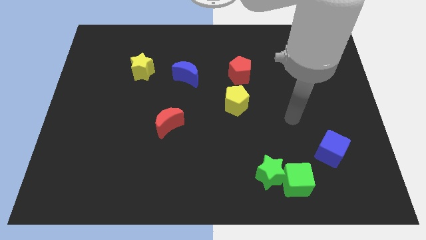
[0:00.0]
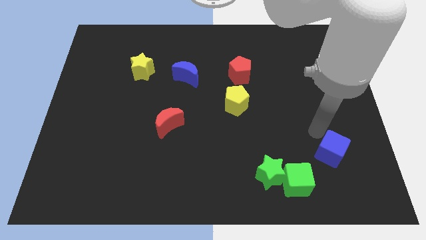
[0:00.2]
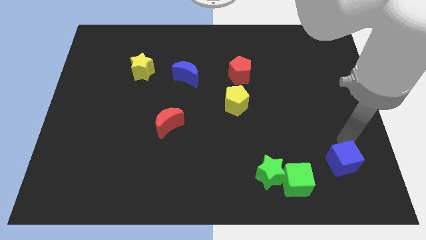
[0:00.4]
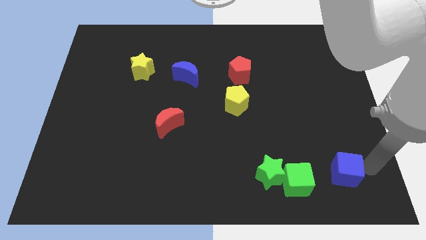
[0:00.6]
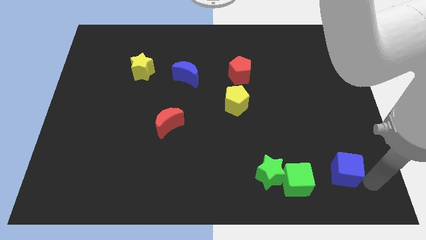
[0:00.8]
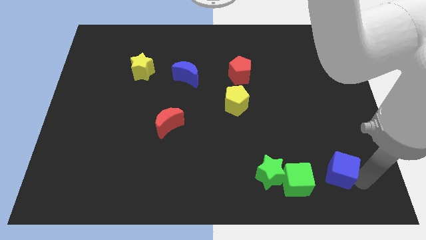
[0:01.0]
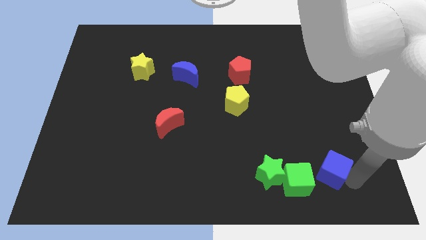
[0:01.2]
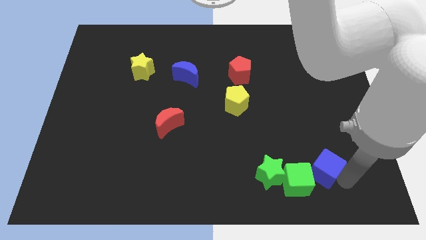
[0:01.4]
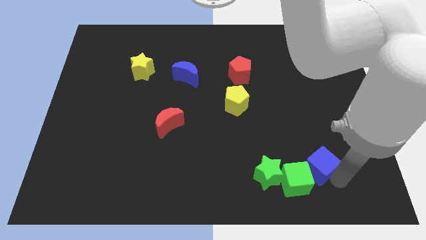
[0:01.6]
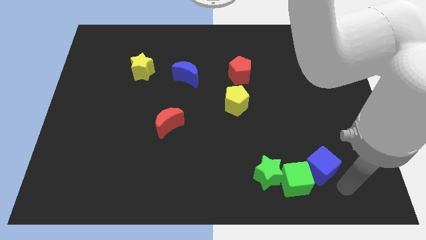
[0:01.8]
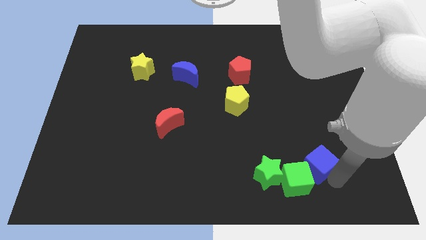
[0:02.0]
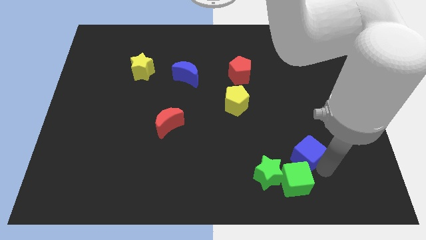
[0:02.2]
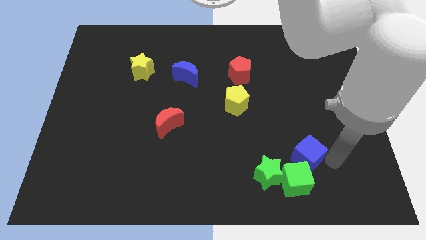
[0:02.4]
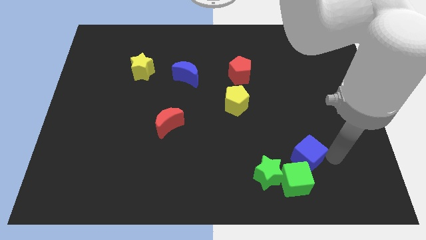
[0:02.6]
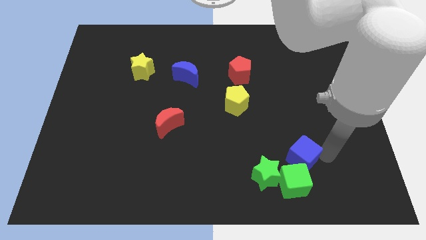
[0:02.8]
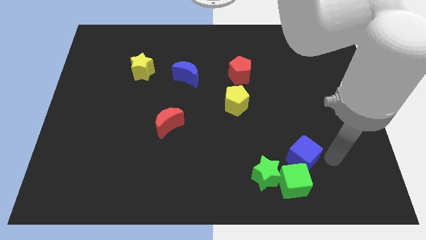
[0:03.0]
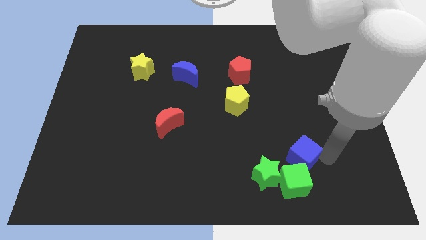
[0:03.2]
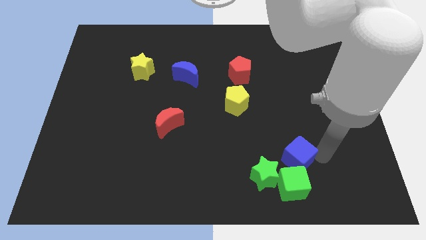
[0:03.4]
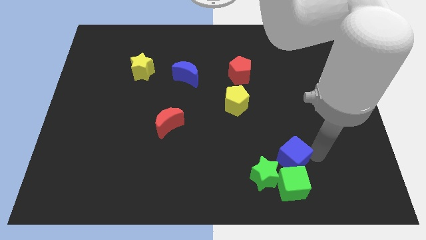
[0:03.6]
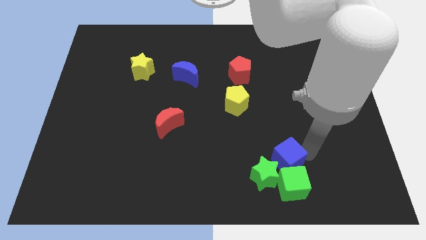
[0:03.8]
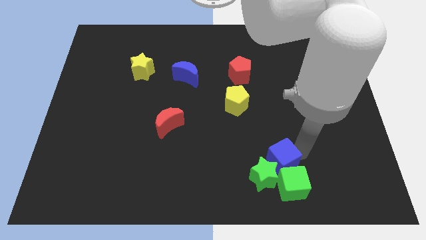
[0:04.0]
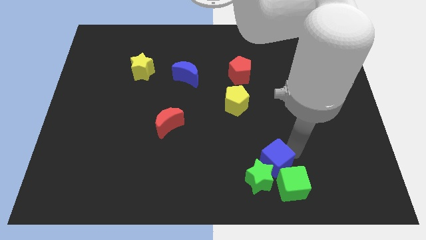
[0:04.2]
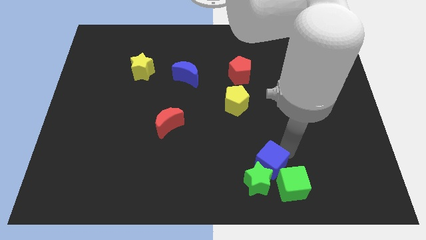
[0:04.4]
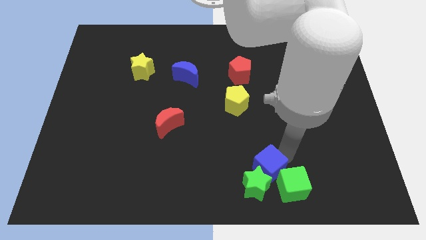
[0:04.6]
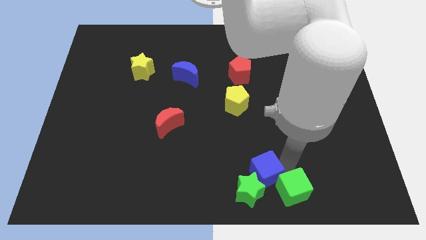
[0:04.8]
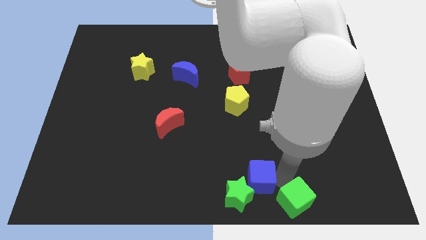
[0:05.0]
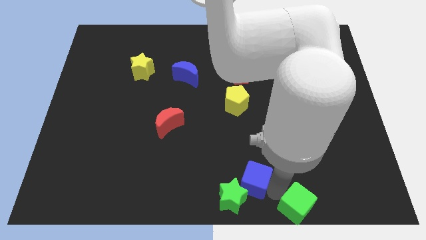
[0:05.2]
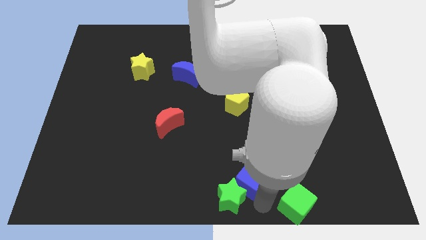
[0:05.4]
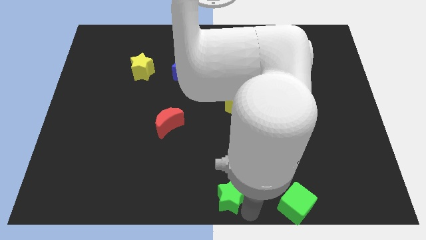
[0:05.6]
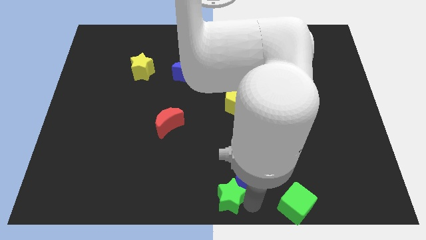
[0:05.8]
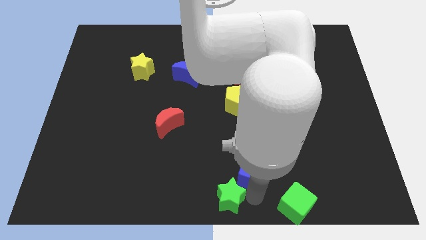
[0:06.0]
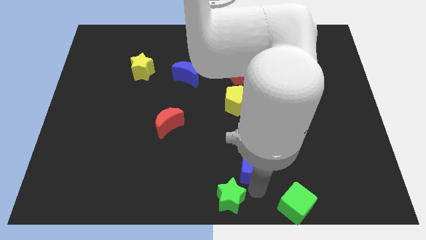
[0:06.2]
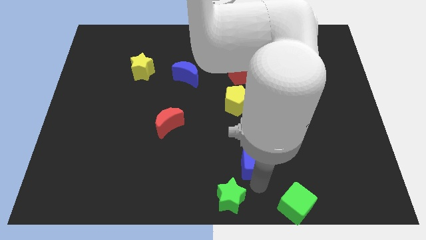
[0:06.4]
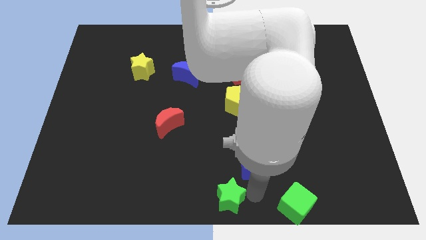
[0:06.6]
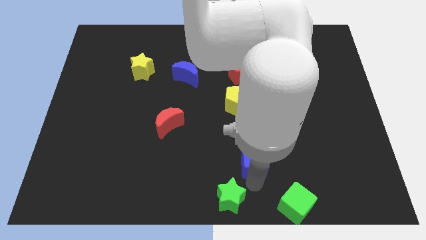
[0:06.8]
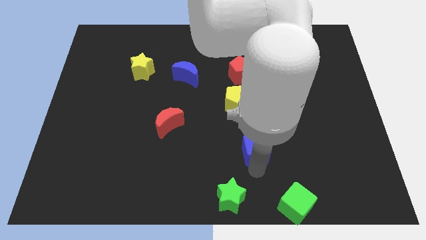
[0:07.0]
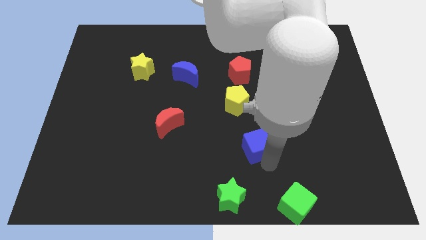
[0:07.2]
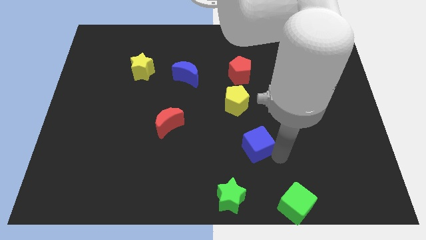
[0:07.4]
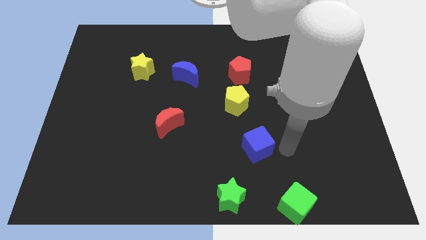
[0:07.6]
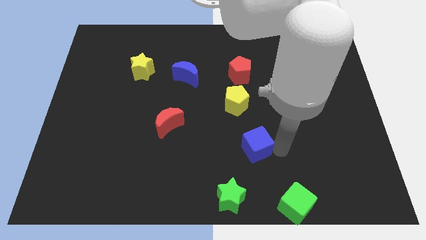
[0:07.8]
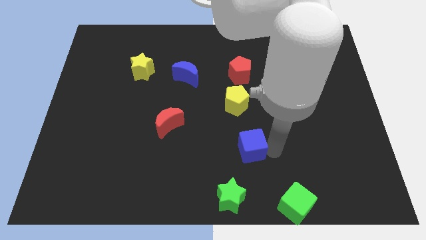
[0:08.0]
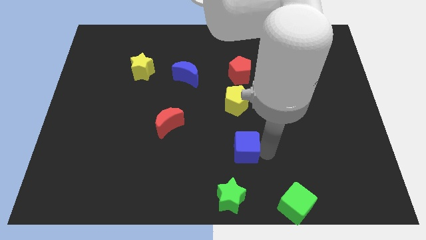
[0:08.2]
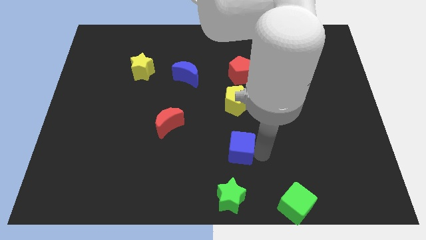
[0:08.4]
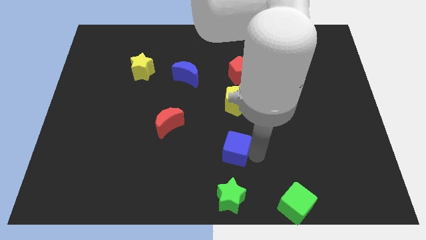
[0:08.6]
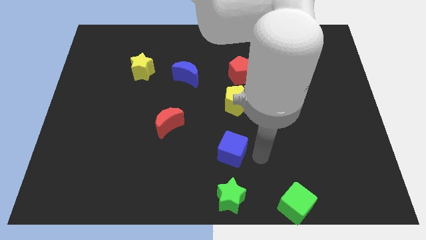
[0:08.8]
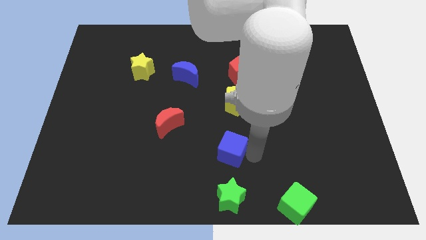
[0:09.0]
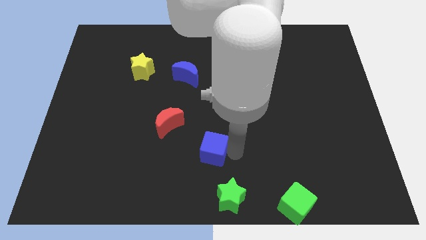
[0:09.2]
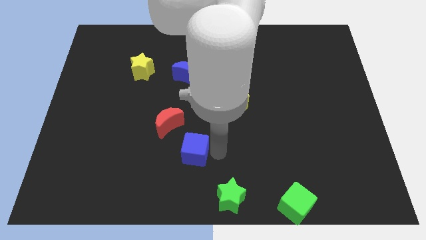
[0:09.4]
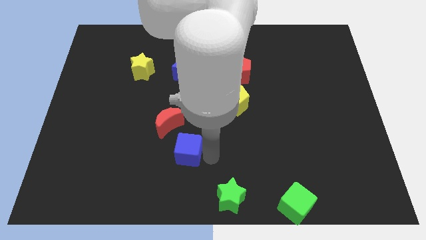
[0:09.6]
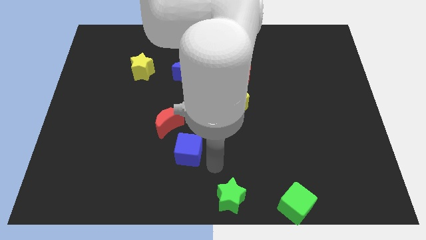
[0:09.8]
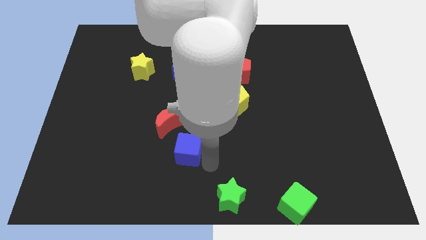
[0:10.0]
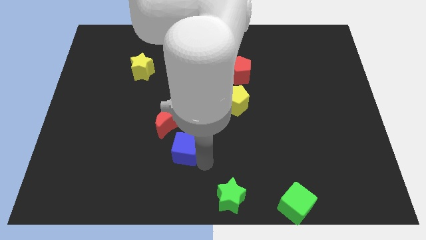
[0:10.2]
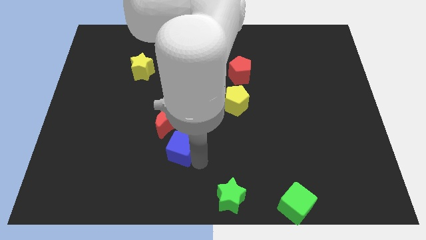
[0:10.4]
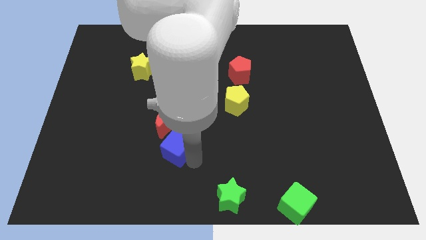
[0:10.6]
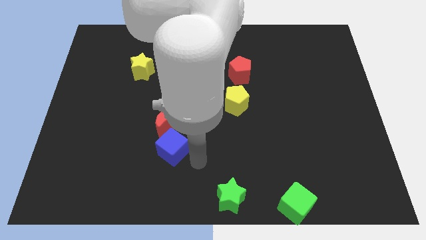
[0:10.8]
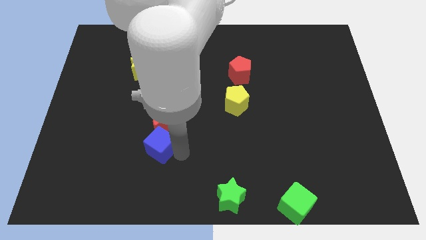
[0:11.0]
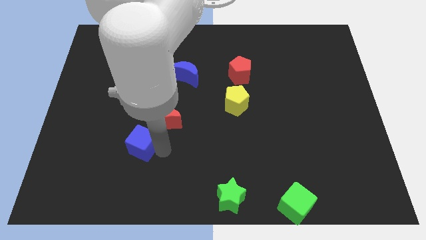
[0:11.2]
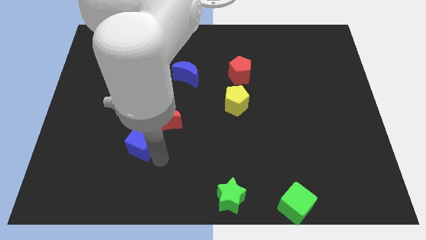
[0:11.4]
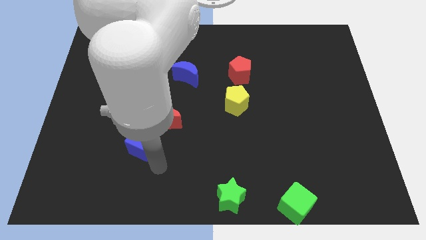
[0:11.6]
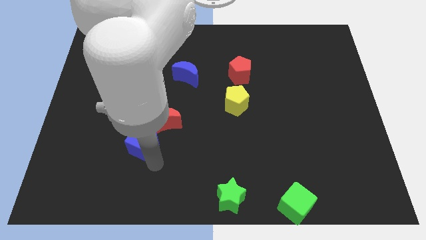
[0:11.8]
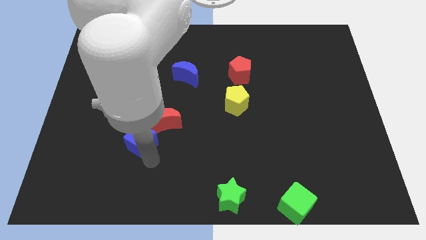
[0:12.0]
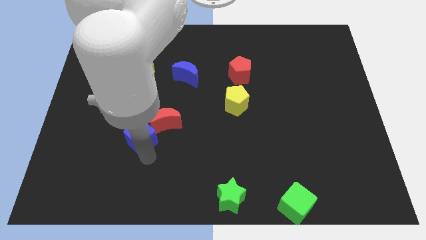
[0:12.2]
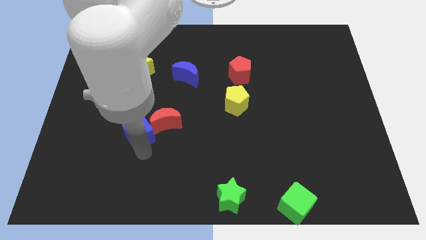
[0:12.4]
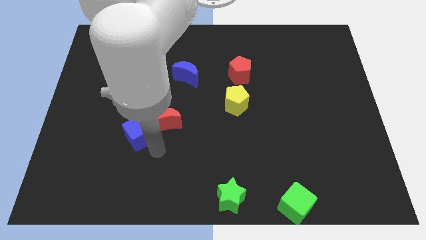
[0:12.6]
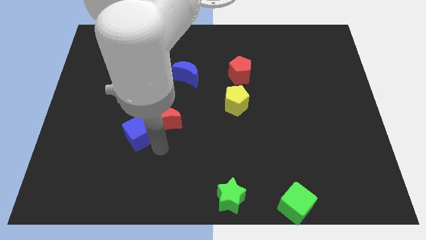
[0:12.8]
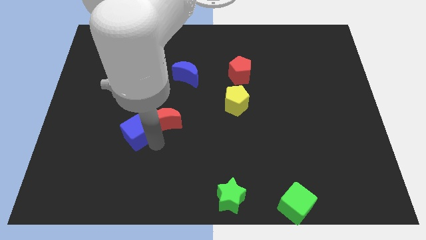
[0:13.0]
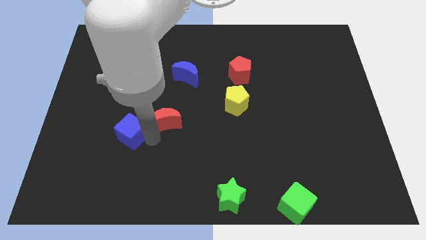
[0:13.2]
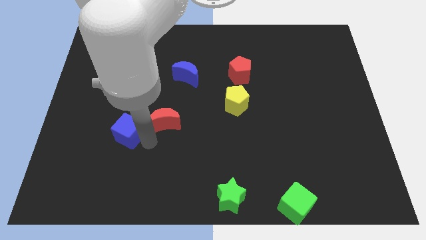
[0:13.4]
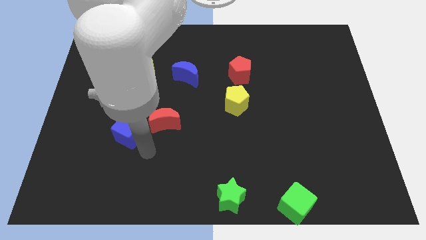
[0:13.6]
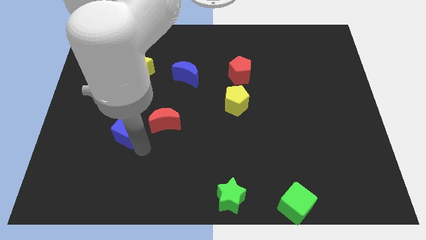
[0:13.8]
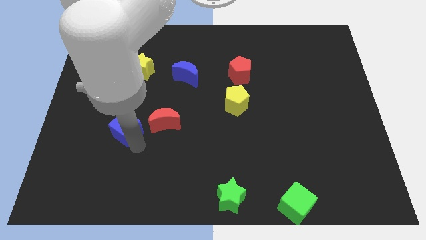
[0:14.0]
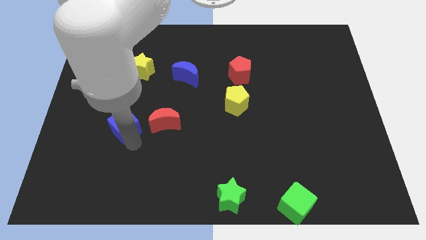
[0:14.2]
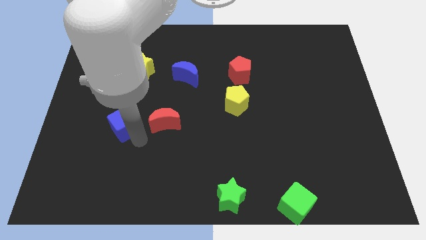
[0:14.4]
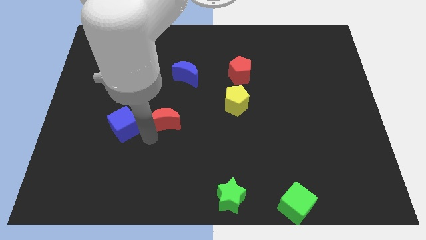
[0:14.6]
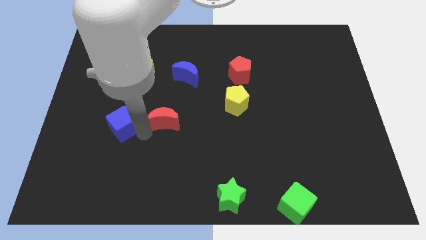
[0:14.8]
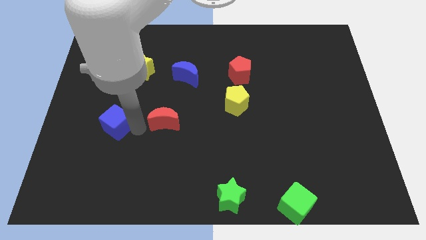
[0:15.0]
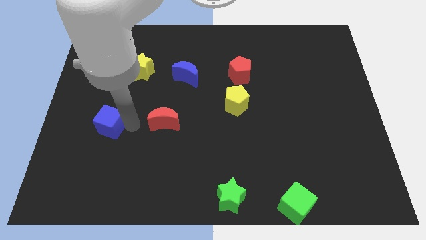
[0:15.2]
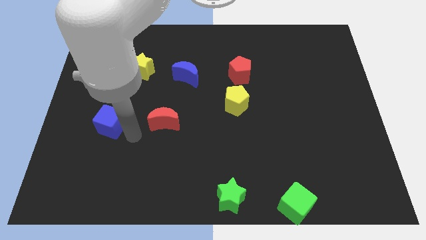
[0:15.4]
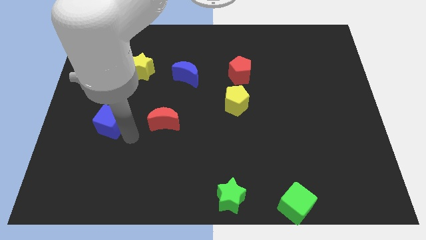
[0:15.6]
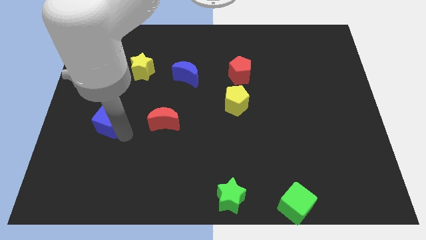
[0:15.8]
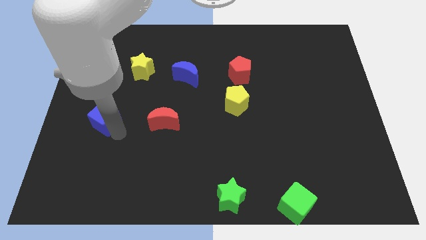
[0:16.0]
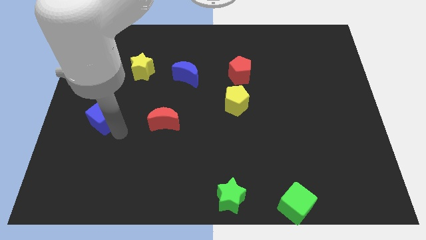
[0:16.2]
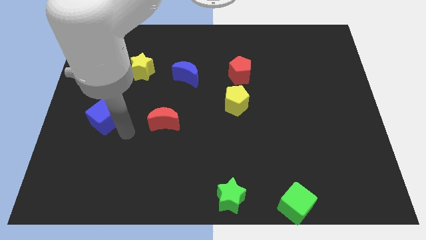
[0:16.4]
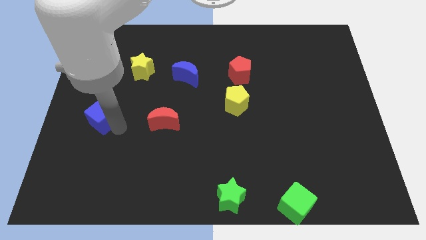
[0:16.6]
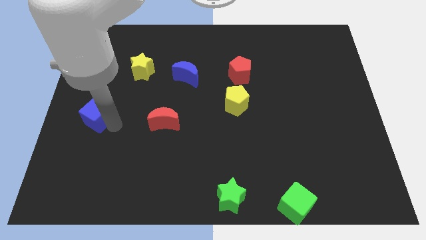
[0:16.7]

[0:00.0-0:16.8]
slide the blue cube to the center left
